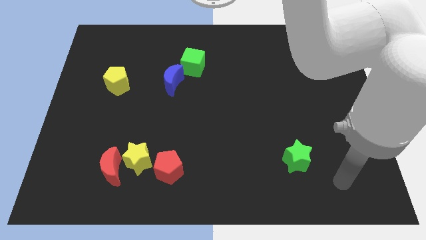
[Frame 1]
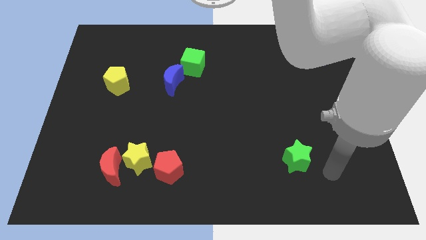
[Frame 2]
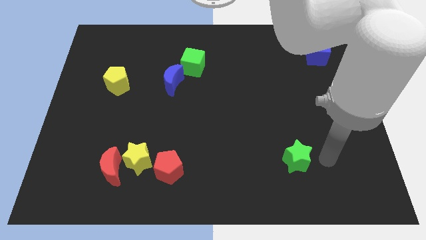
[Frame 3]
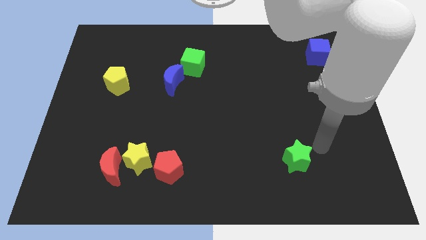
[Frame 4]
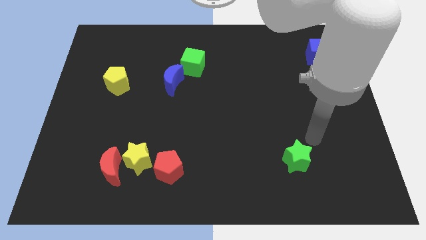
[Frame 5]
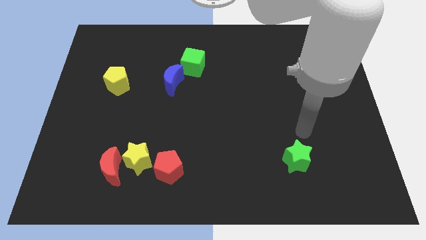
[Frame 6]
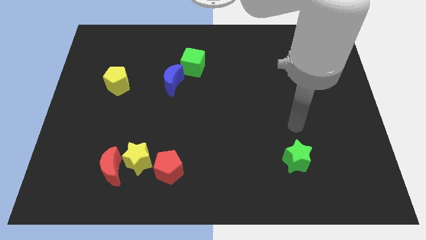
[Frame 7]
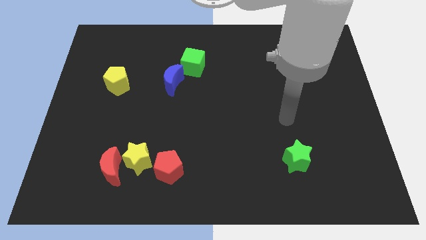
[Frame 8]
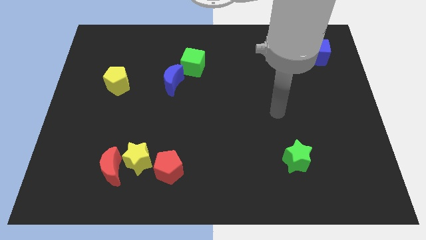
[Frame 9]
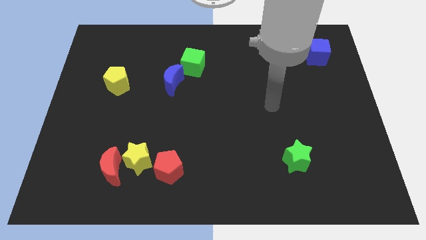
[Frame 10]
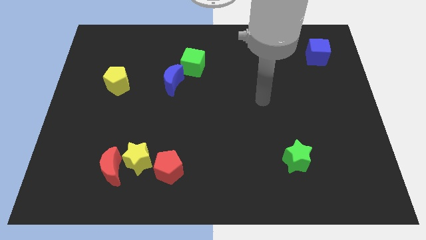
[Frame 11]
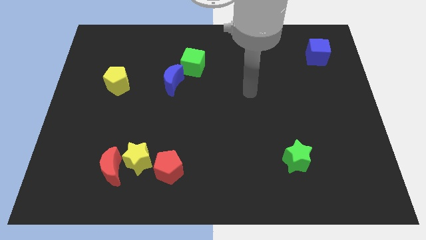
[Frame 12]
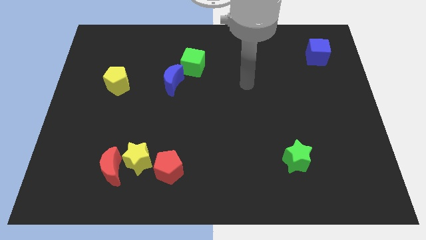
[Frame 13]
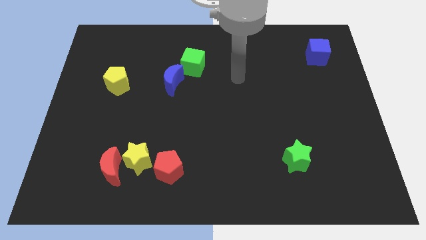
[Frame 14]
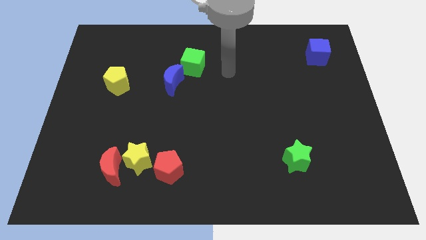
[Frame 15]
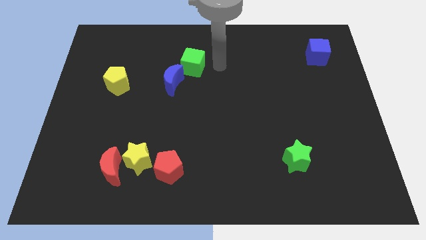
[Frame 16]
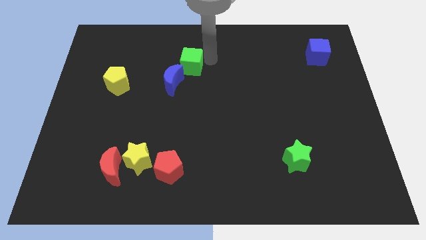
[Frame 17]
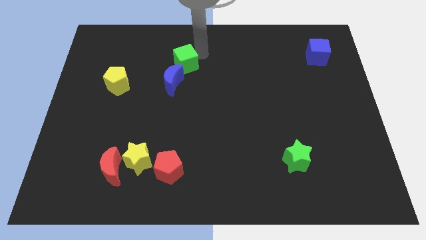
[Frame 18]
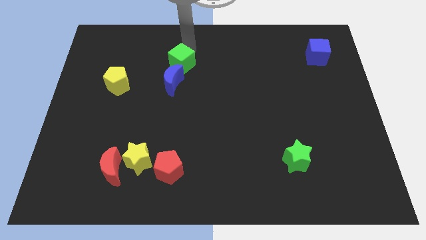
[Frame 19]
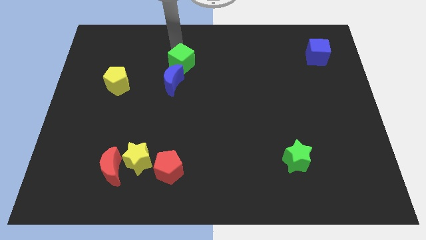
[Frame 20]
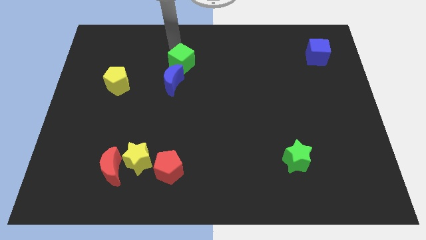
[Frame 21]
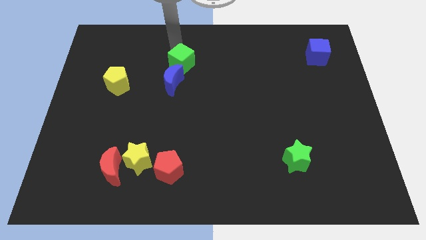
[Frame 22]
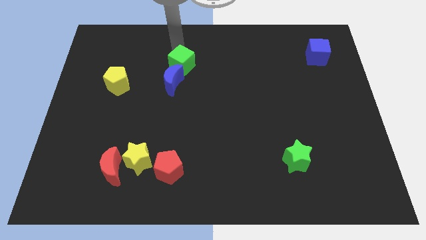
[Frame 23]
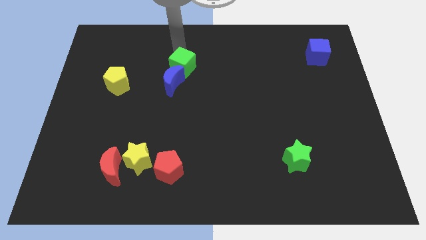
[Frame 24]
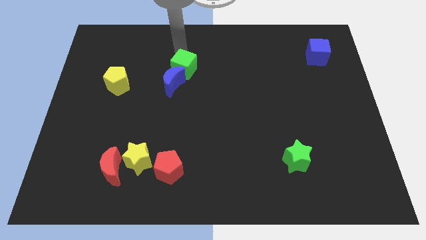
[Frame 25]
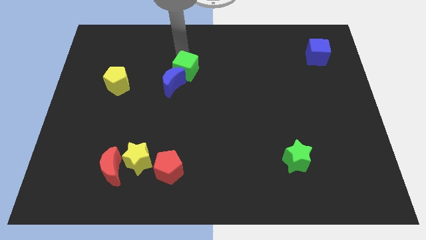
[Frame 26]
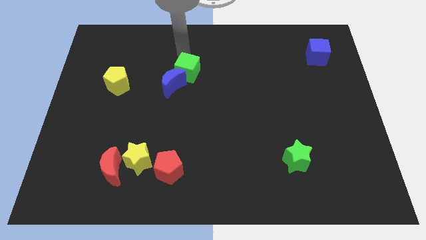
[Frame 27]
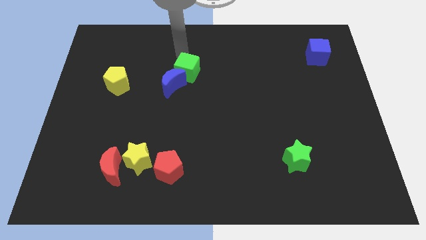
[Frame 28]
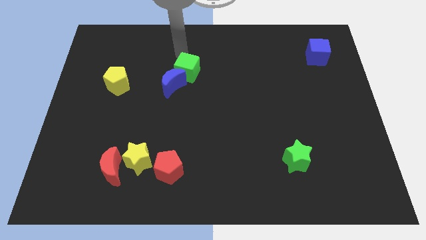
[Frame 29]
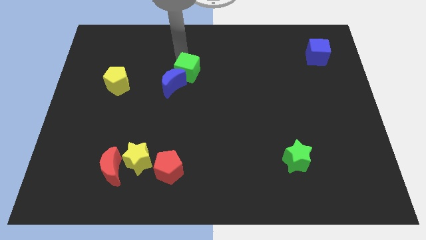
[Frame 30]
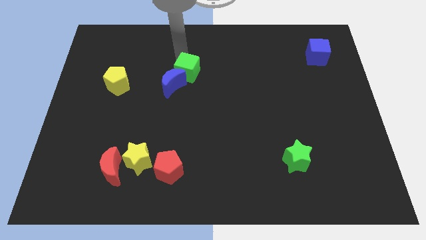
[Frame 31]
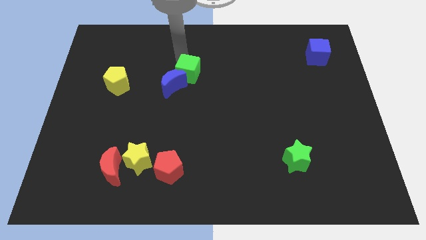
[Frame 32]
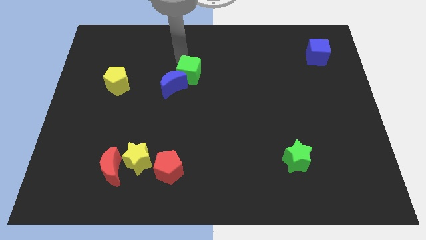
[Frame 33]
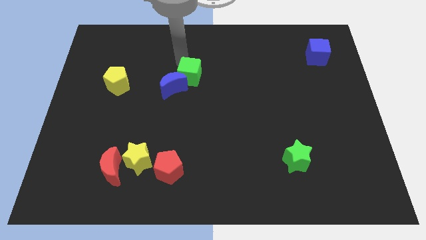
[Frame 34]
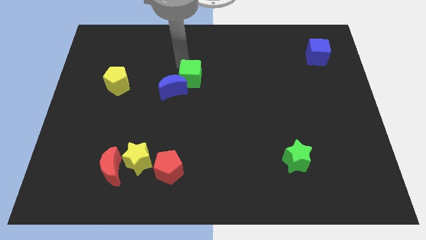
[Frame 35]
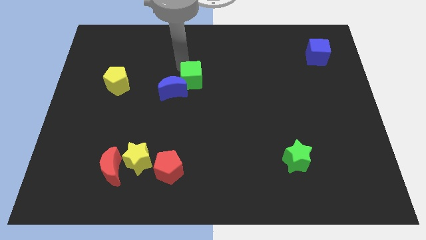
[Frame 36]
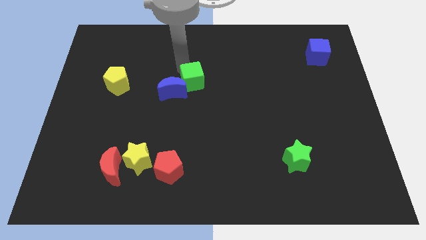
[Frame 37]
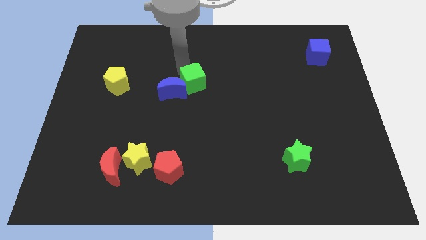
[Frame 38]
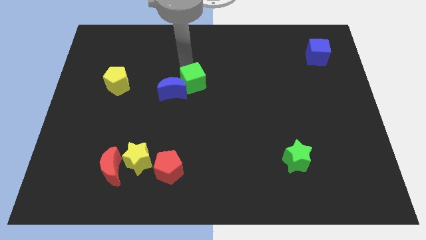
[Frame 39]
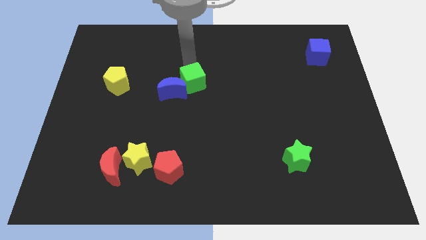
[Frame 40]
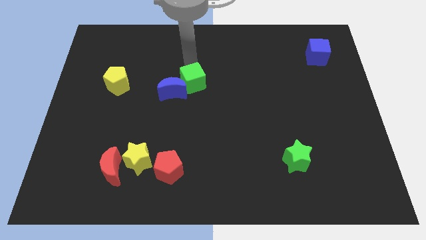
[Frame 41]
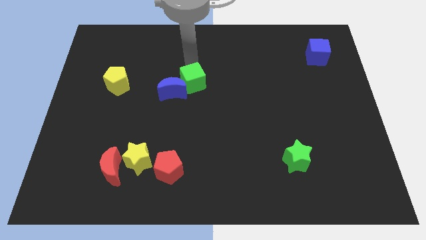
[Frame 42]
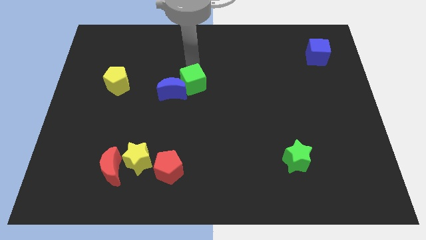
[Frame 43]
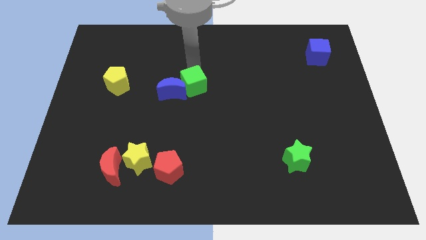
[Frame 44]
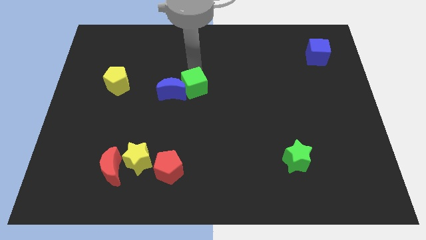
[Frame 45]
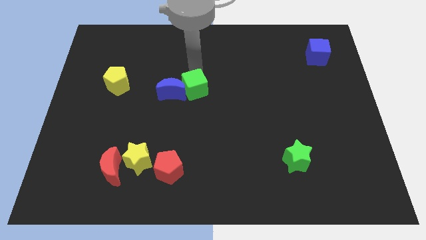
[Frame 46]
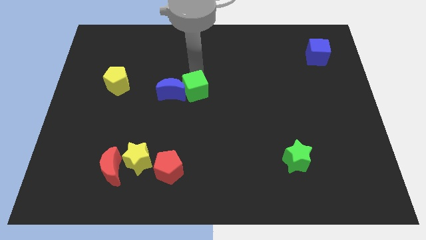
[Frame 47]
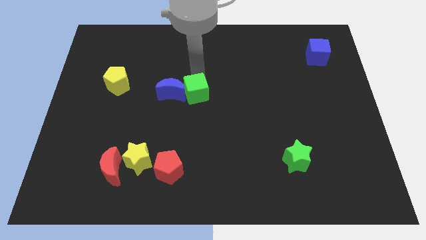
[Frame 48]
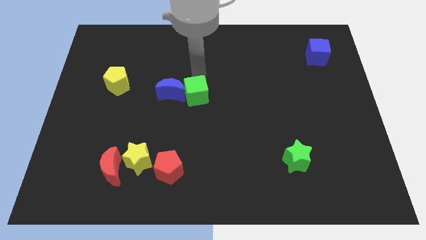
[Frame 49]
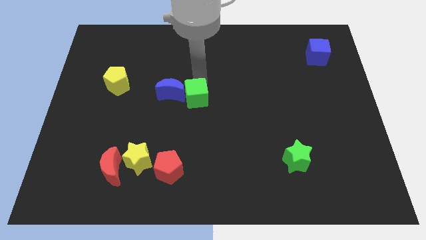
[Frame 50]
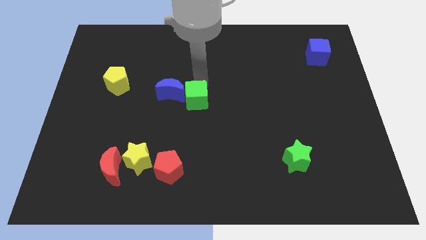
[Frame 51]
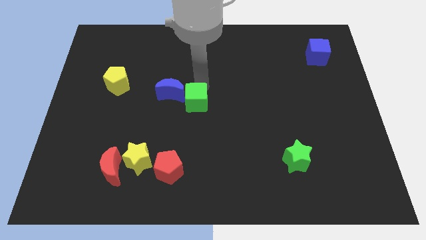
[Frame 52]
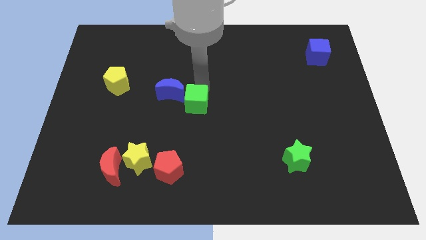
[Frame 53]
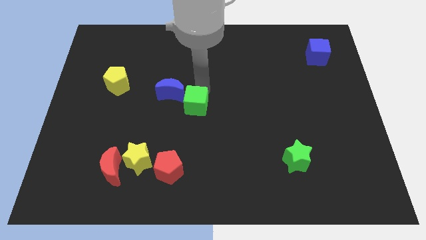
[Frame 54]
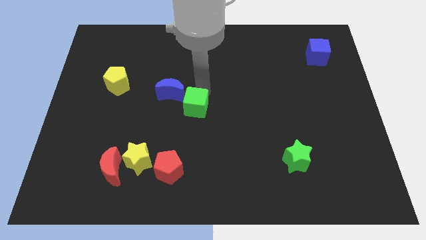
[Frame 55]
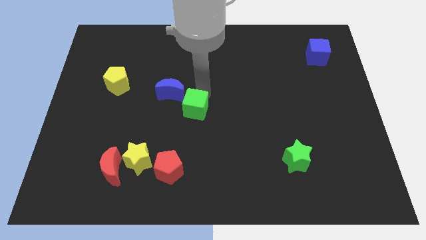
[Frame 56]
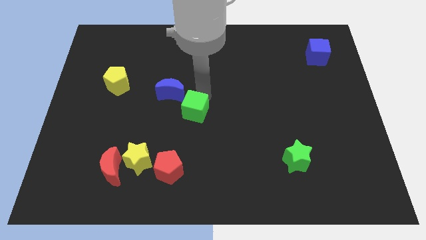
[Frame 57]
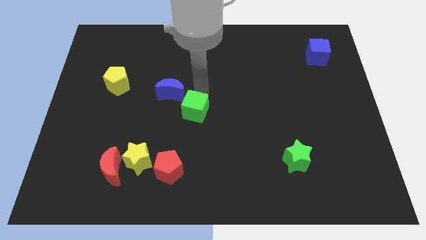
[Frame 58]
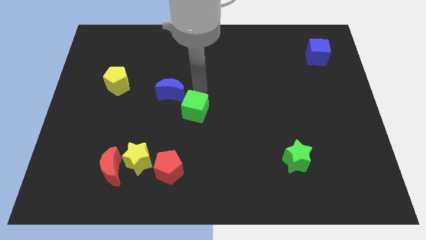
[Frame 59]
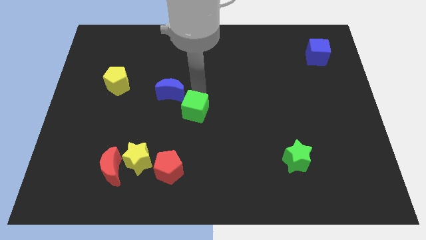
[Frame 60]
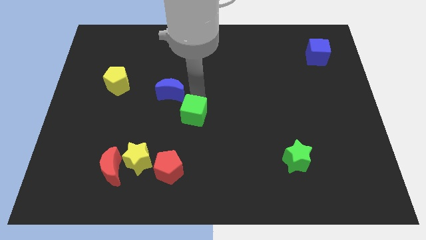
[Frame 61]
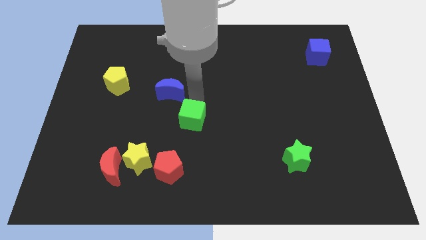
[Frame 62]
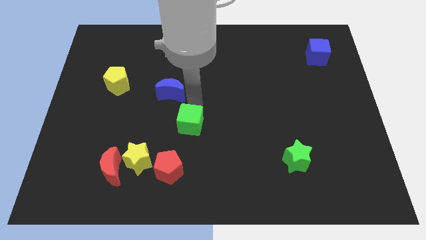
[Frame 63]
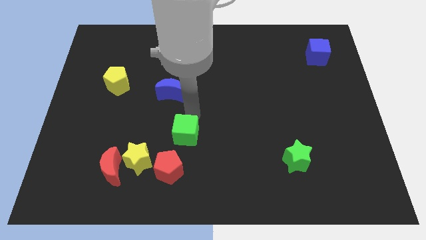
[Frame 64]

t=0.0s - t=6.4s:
push the green cube down

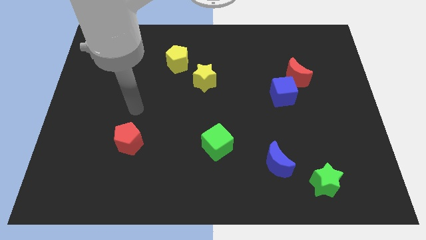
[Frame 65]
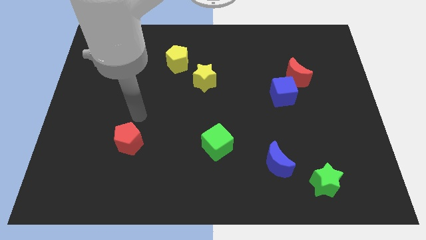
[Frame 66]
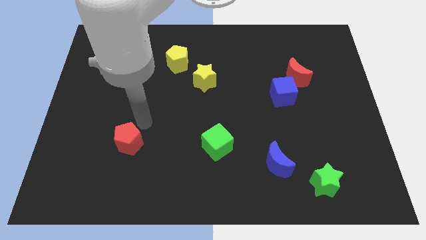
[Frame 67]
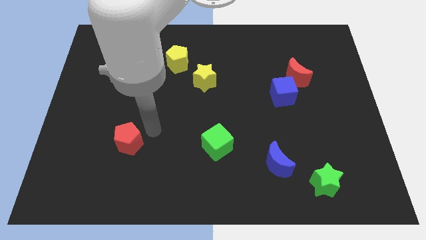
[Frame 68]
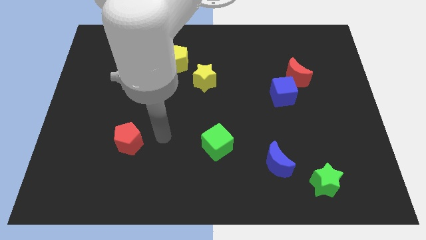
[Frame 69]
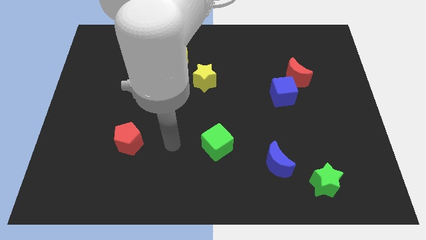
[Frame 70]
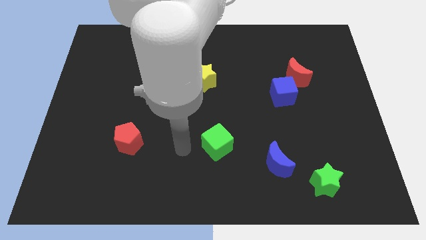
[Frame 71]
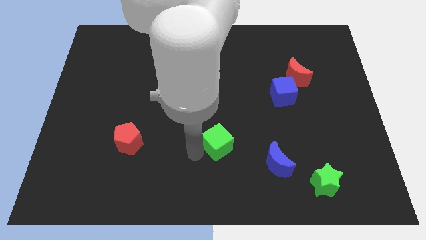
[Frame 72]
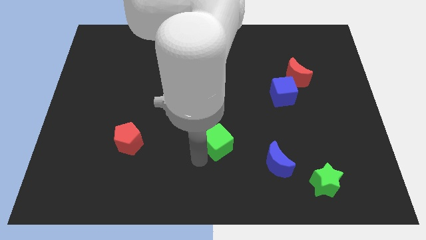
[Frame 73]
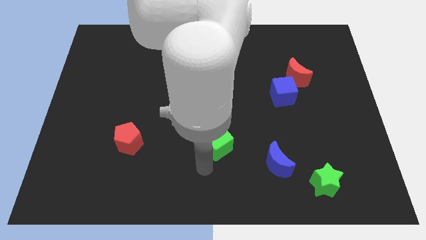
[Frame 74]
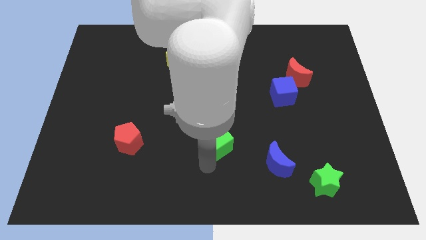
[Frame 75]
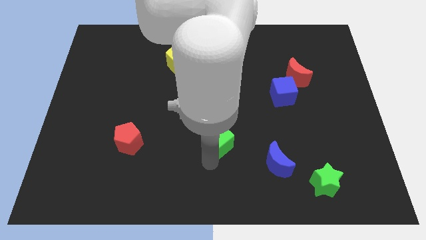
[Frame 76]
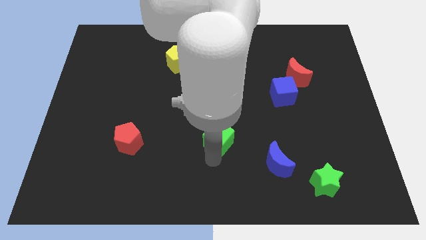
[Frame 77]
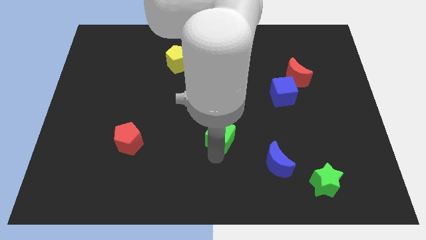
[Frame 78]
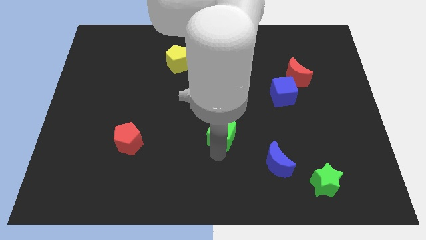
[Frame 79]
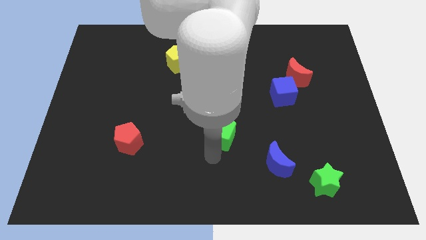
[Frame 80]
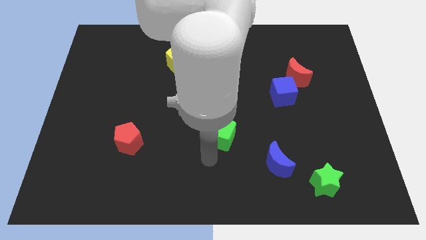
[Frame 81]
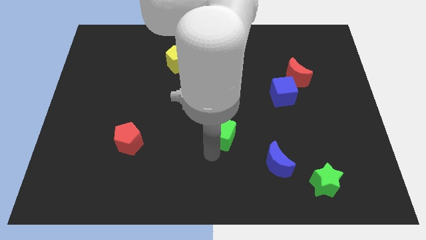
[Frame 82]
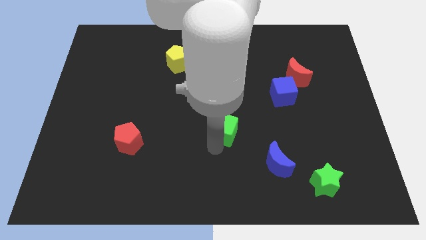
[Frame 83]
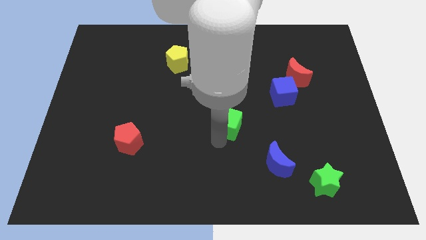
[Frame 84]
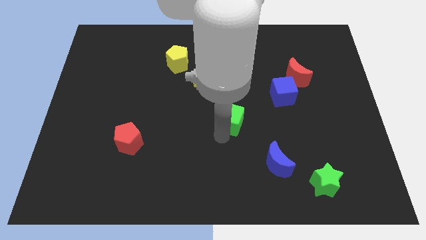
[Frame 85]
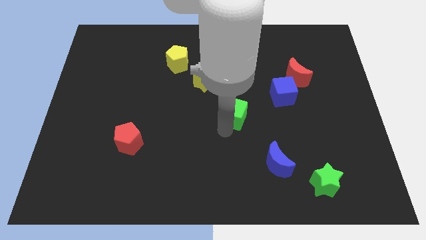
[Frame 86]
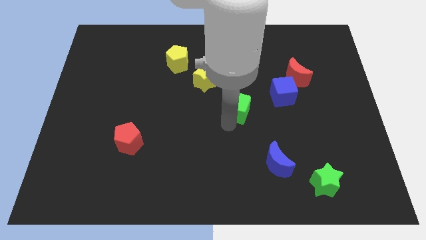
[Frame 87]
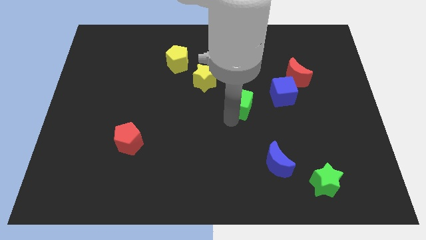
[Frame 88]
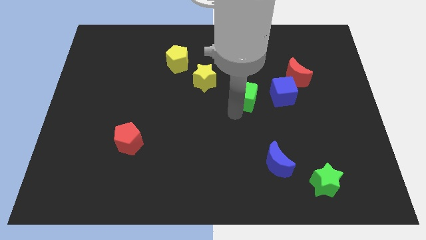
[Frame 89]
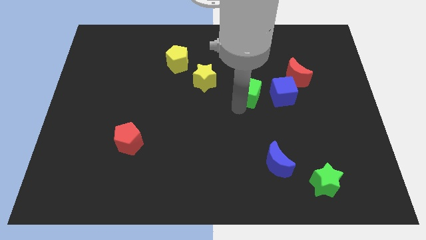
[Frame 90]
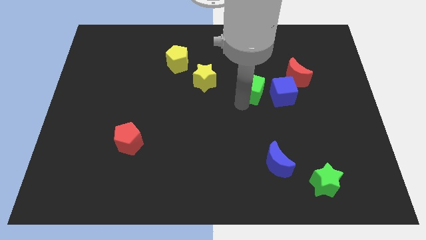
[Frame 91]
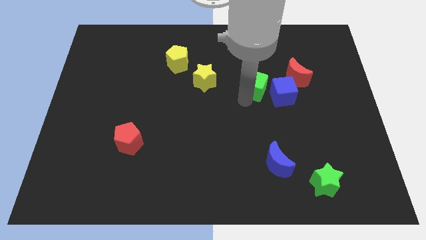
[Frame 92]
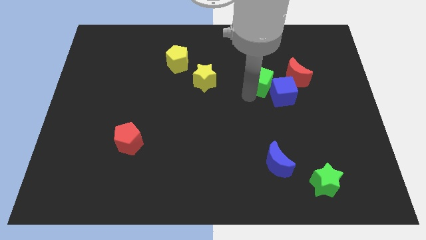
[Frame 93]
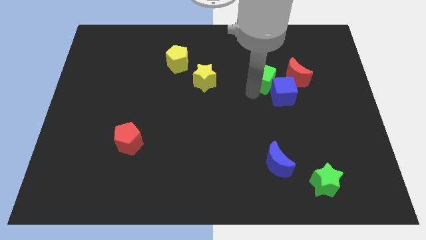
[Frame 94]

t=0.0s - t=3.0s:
push the green cube upwards and right
